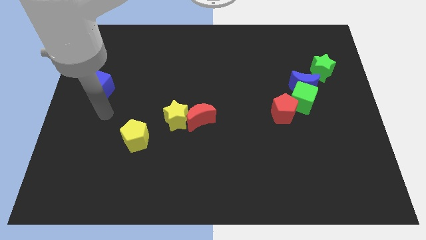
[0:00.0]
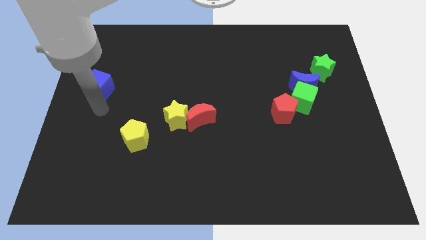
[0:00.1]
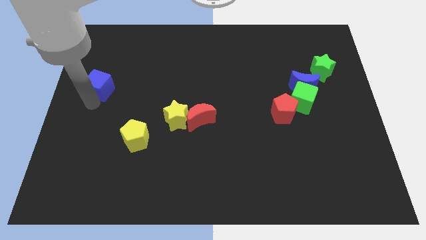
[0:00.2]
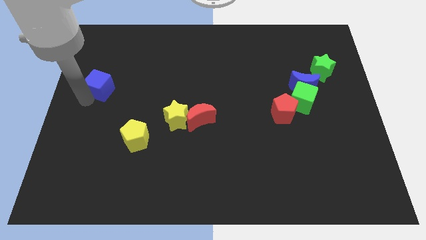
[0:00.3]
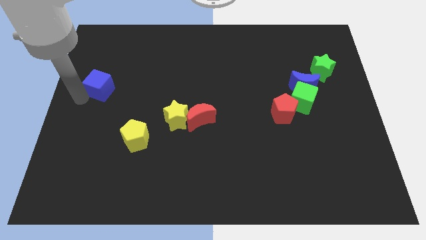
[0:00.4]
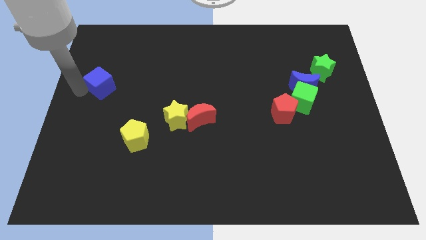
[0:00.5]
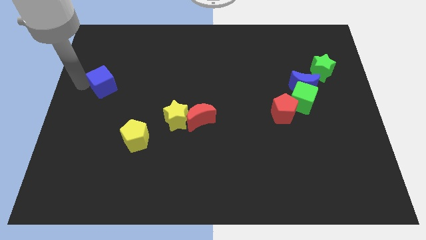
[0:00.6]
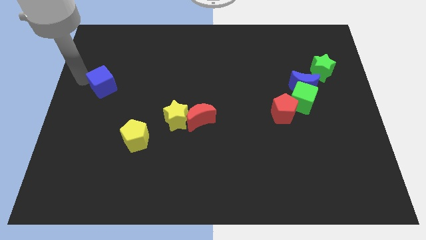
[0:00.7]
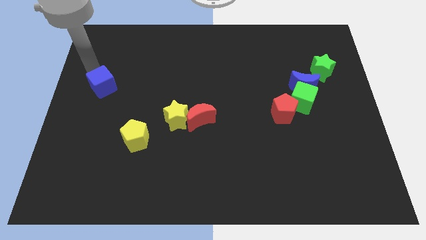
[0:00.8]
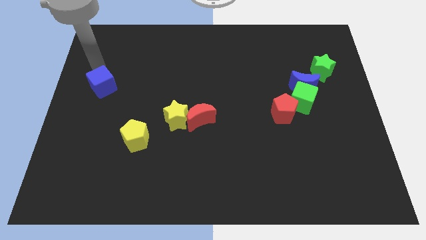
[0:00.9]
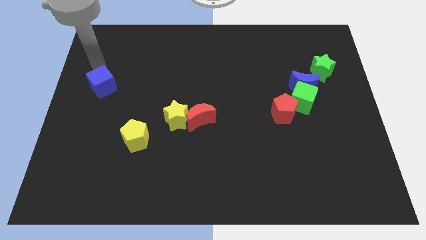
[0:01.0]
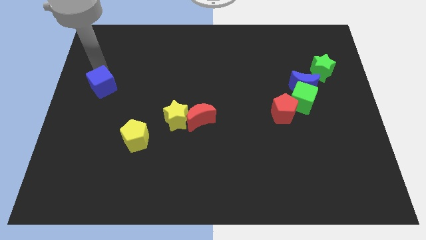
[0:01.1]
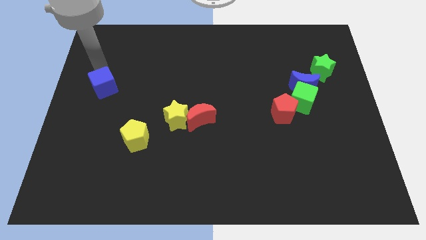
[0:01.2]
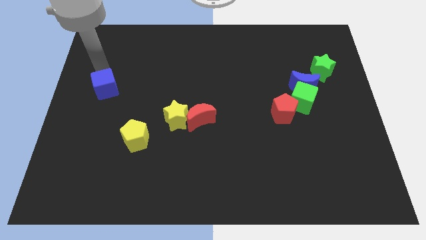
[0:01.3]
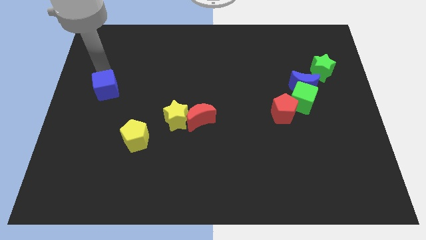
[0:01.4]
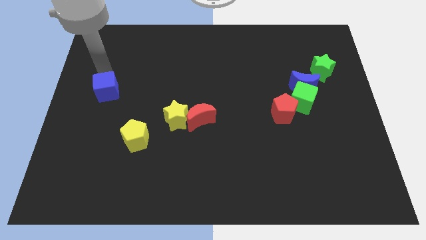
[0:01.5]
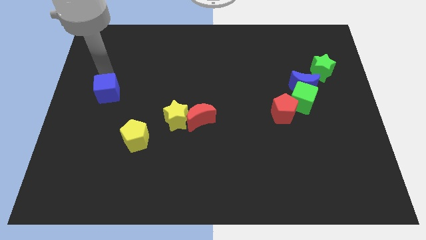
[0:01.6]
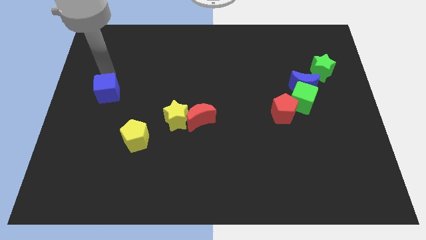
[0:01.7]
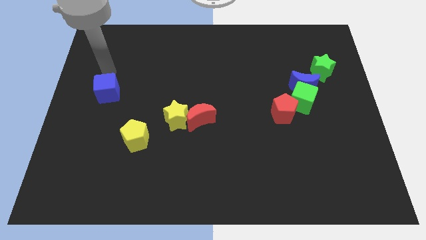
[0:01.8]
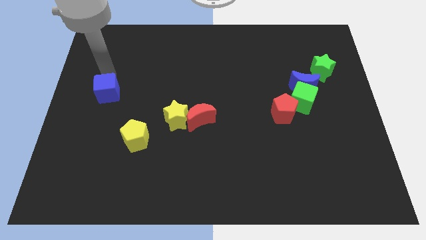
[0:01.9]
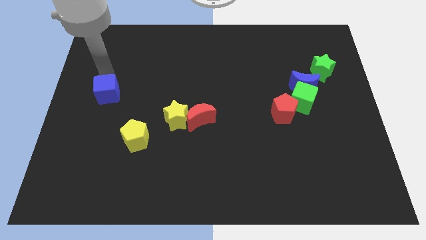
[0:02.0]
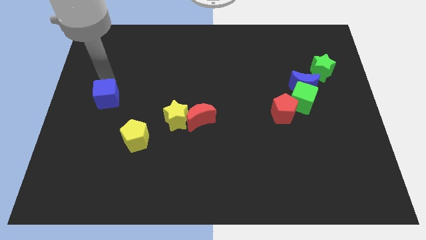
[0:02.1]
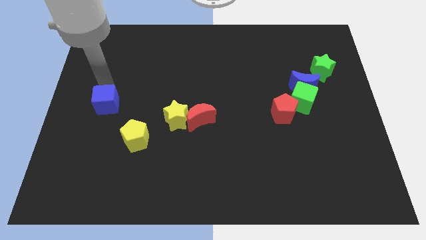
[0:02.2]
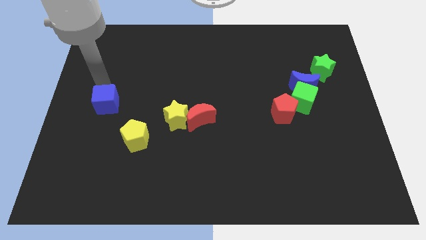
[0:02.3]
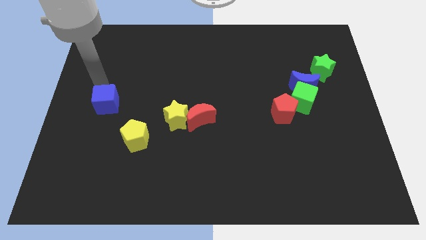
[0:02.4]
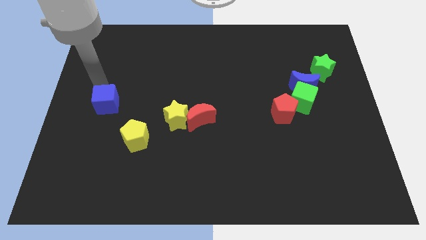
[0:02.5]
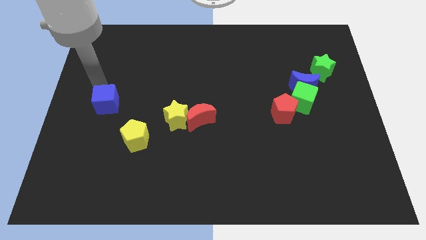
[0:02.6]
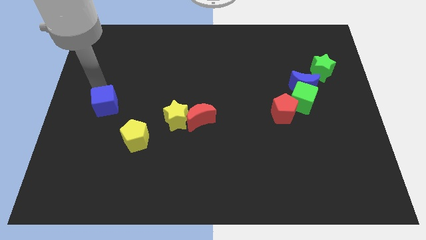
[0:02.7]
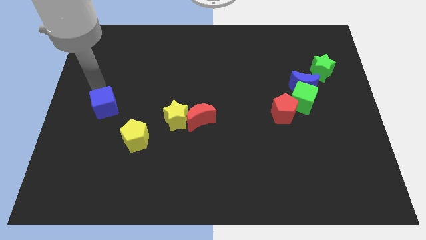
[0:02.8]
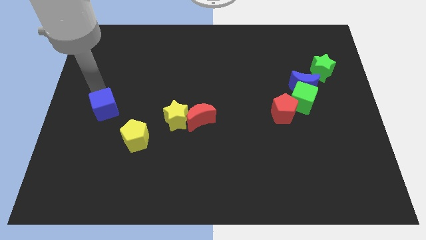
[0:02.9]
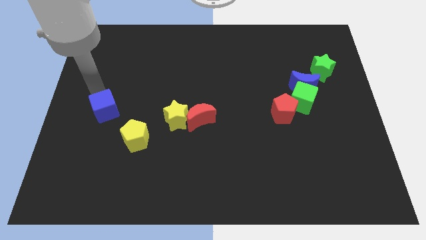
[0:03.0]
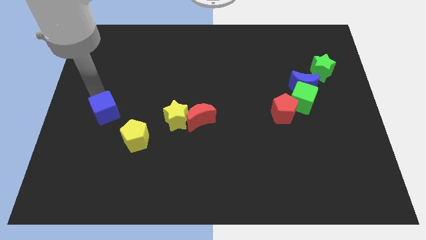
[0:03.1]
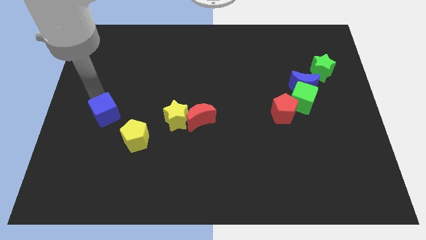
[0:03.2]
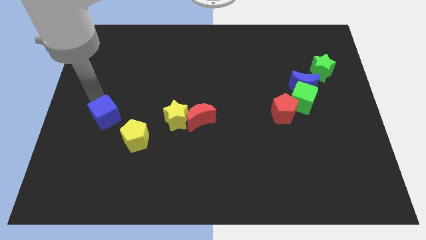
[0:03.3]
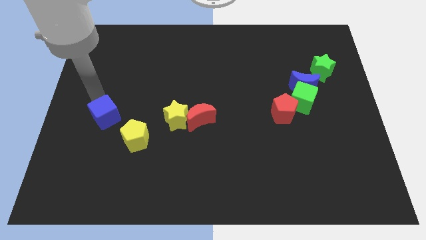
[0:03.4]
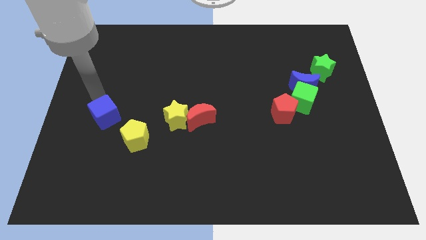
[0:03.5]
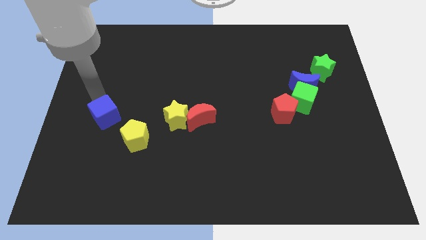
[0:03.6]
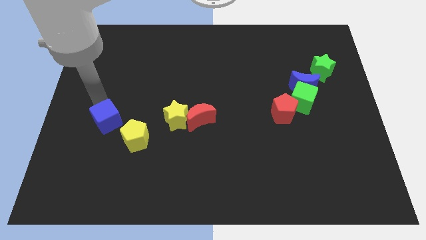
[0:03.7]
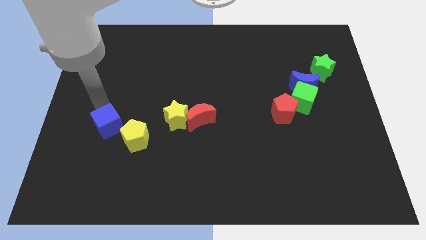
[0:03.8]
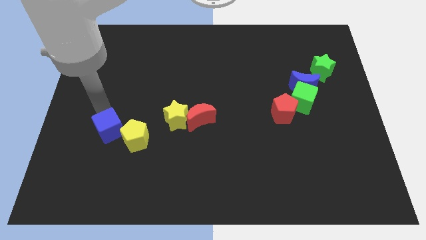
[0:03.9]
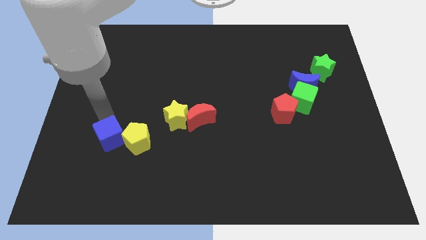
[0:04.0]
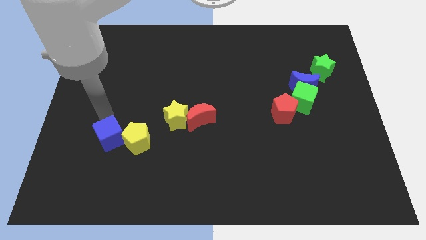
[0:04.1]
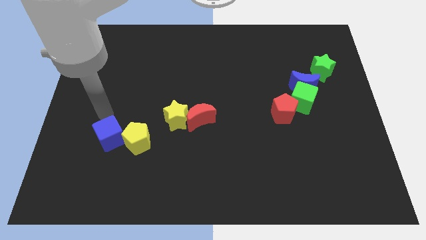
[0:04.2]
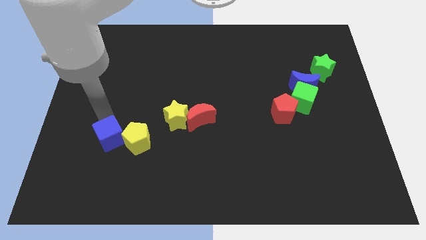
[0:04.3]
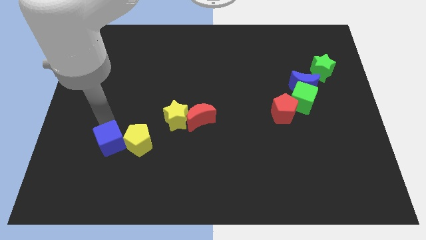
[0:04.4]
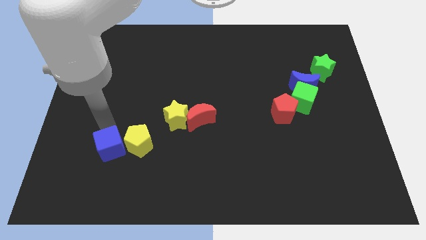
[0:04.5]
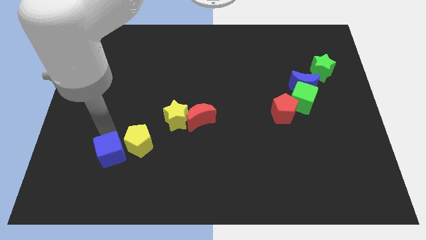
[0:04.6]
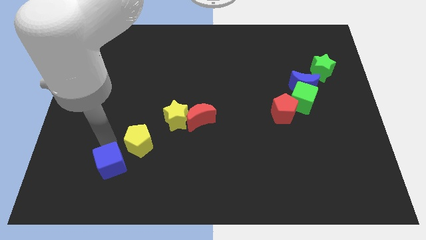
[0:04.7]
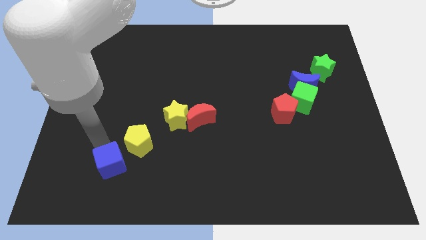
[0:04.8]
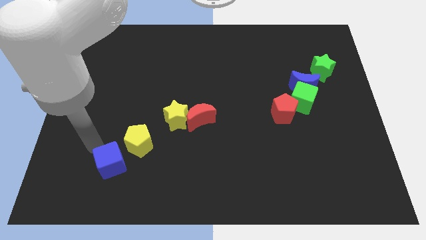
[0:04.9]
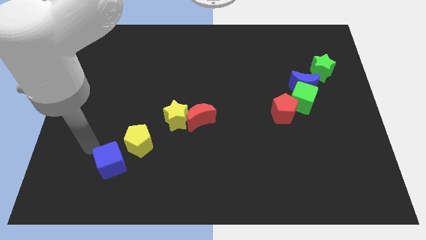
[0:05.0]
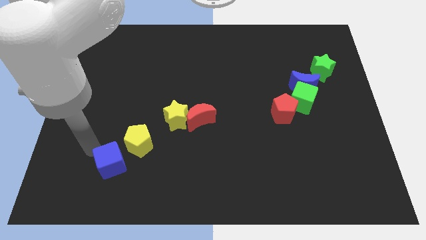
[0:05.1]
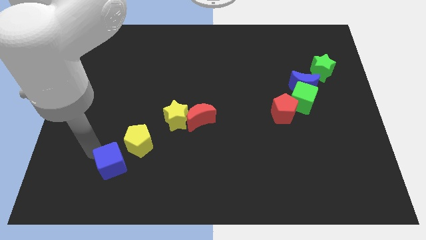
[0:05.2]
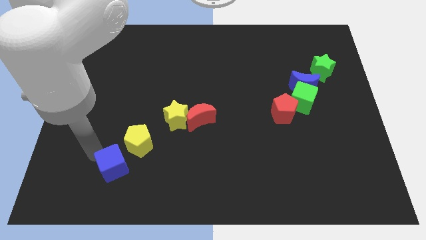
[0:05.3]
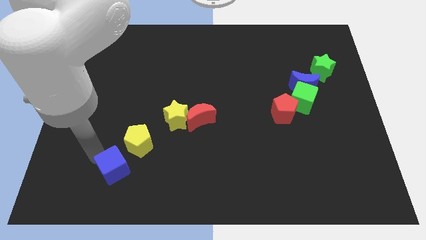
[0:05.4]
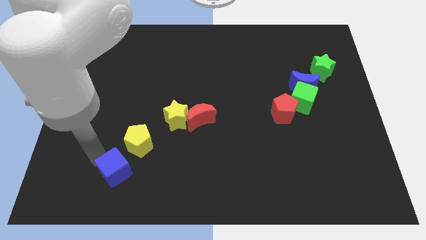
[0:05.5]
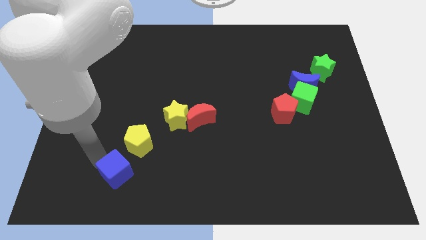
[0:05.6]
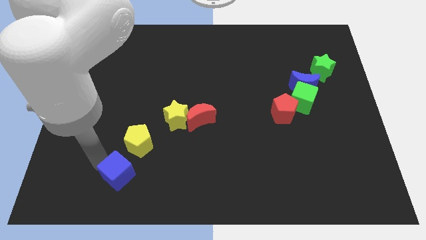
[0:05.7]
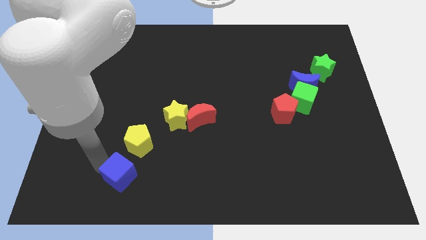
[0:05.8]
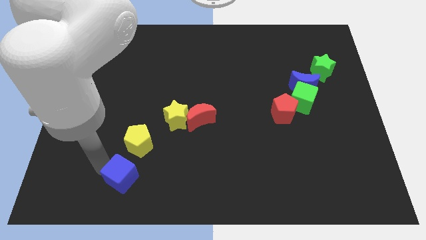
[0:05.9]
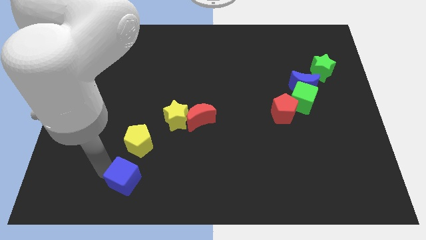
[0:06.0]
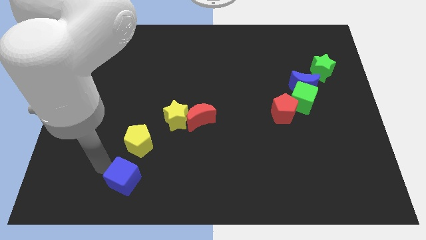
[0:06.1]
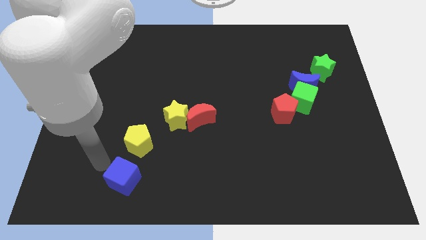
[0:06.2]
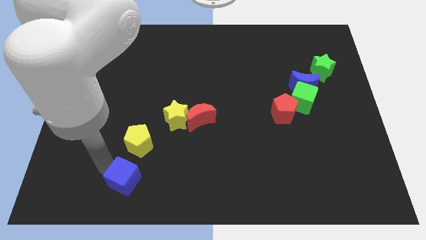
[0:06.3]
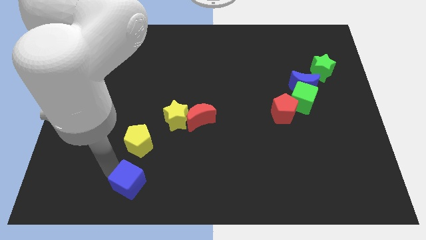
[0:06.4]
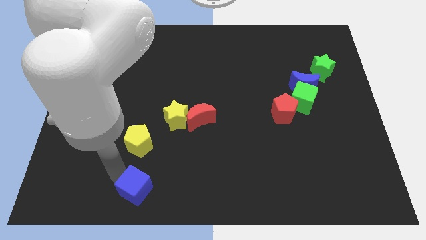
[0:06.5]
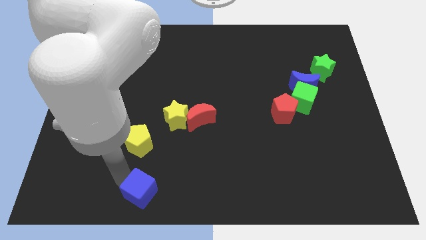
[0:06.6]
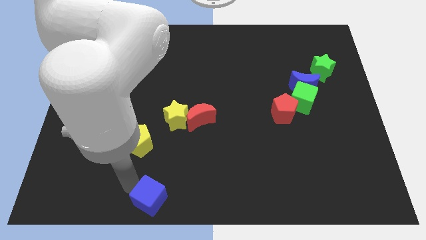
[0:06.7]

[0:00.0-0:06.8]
push the blue cube to the bottom side
